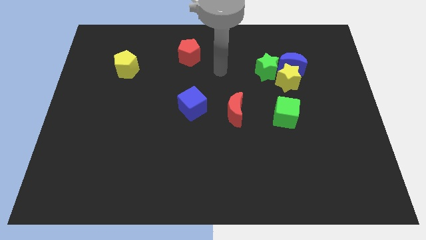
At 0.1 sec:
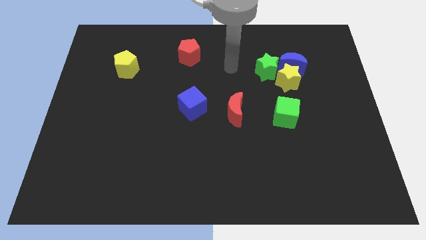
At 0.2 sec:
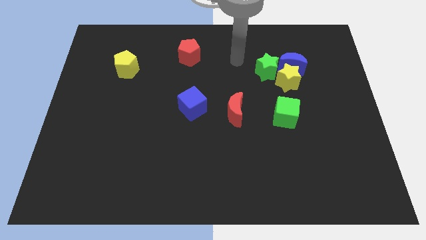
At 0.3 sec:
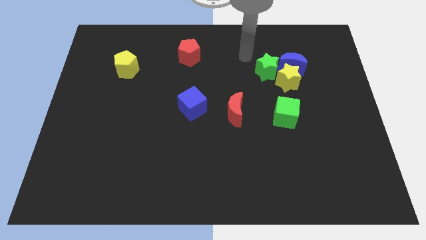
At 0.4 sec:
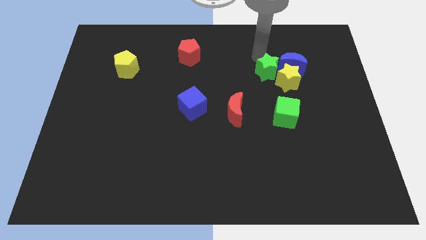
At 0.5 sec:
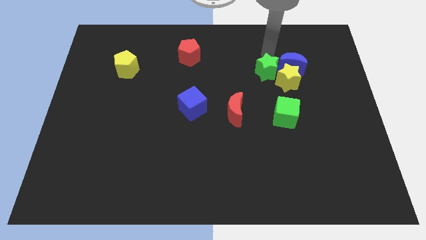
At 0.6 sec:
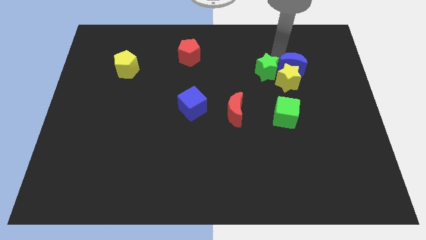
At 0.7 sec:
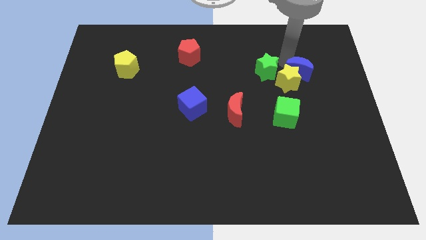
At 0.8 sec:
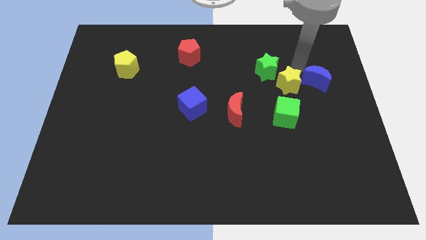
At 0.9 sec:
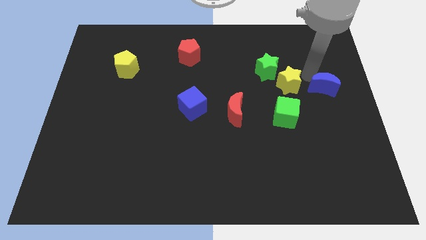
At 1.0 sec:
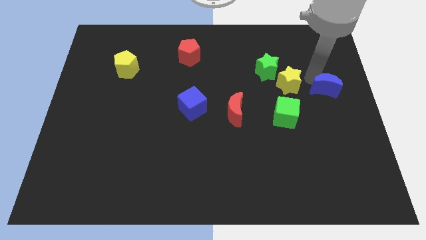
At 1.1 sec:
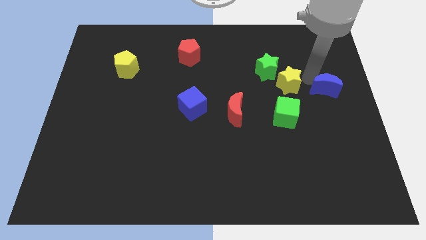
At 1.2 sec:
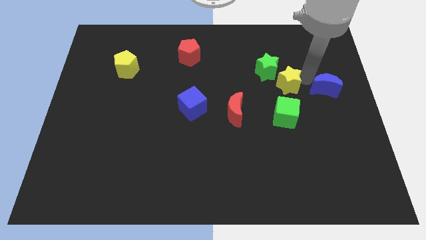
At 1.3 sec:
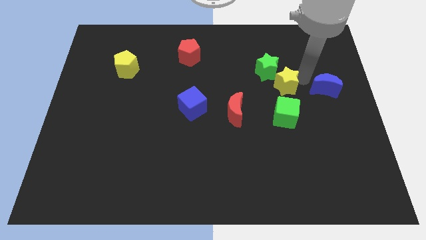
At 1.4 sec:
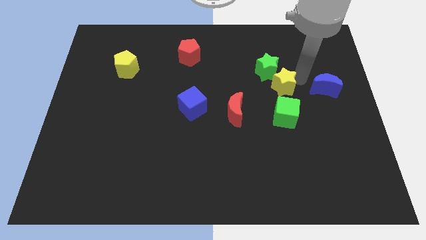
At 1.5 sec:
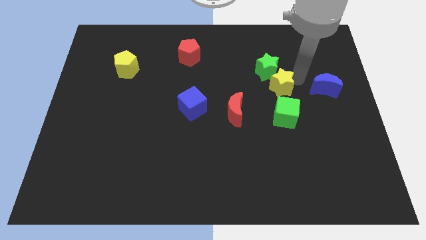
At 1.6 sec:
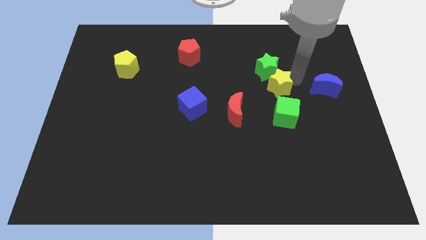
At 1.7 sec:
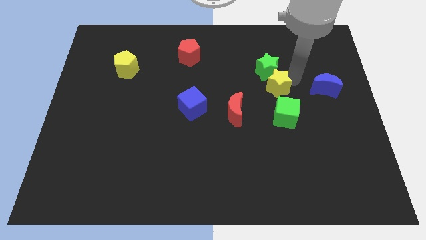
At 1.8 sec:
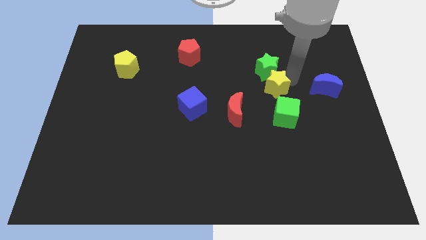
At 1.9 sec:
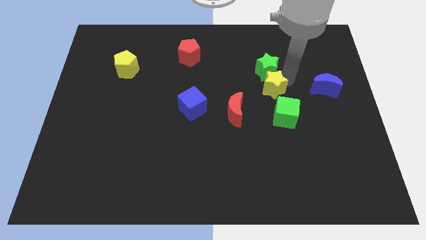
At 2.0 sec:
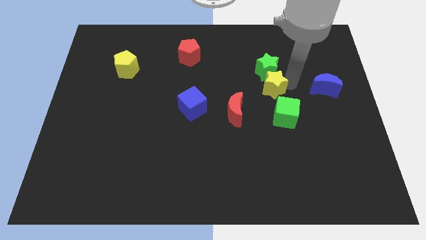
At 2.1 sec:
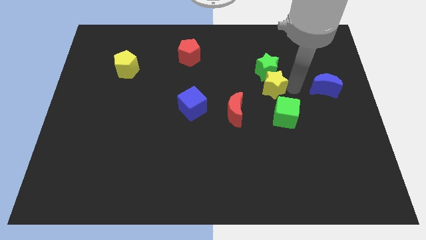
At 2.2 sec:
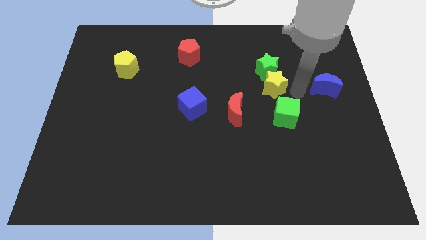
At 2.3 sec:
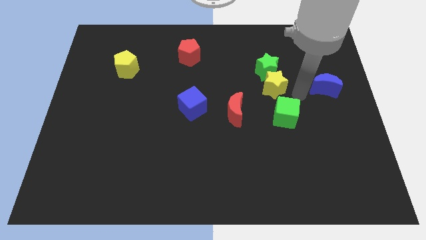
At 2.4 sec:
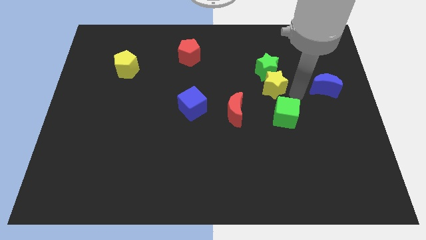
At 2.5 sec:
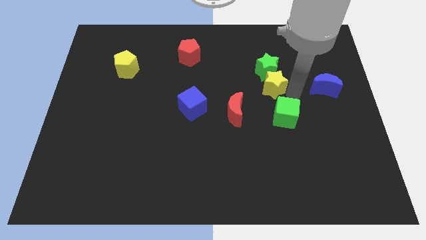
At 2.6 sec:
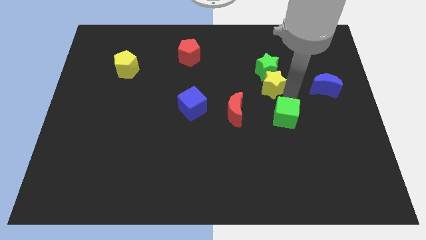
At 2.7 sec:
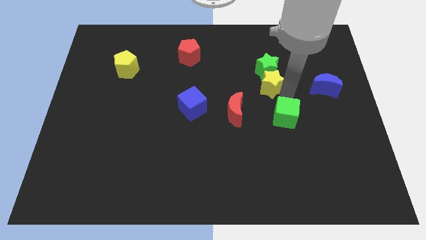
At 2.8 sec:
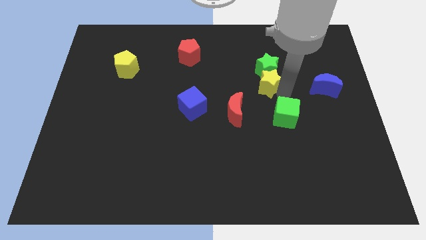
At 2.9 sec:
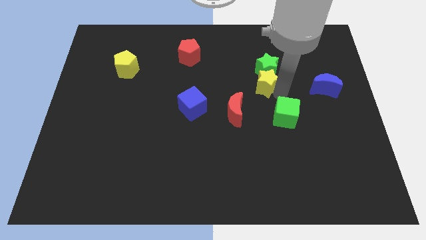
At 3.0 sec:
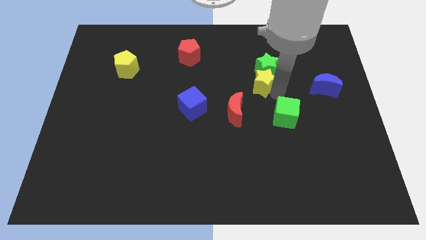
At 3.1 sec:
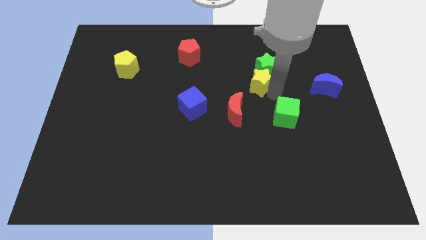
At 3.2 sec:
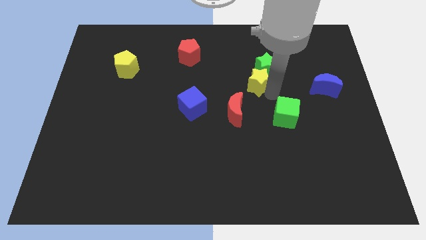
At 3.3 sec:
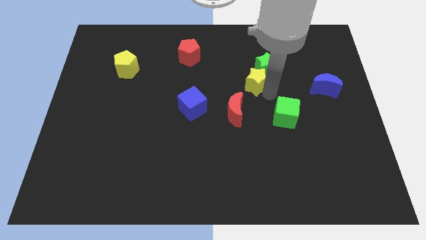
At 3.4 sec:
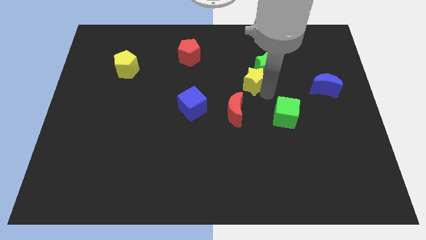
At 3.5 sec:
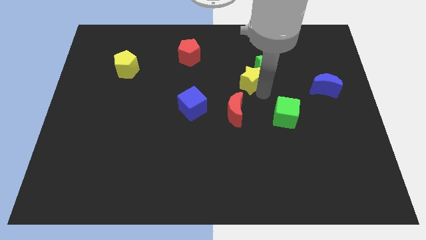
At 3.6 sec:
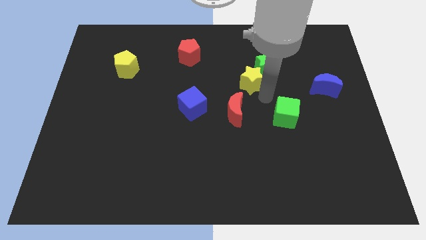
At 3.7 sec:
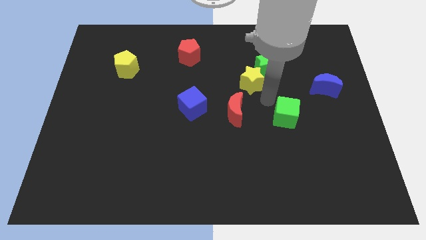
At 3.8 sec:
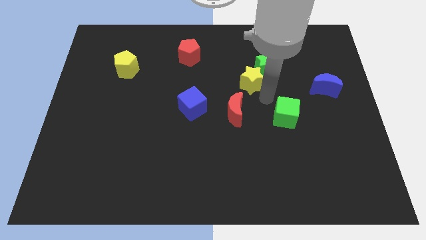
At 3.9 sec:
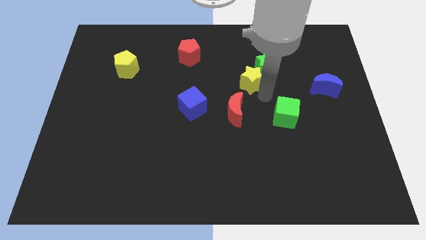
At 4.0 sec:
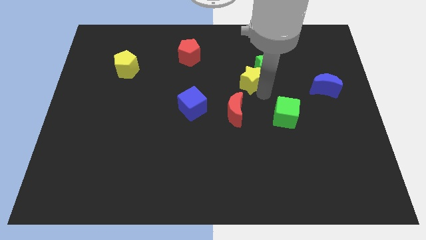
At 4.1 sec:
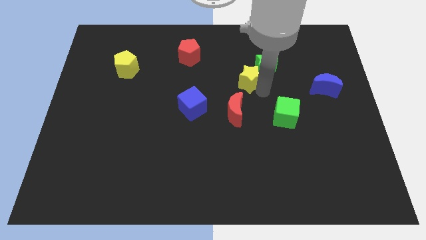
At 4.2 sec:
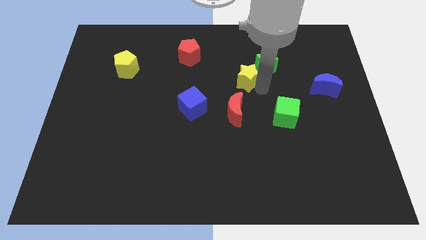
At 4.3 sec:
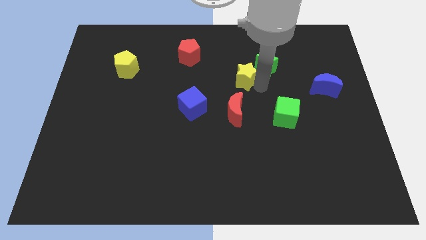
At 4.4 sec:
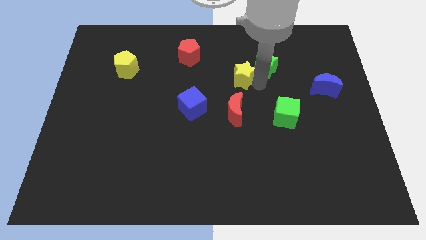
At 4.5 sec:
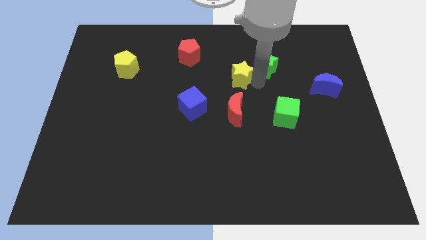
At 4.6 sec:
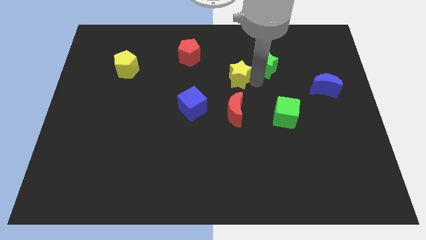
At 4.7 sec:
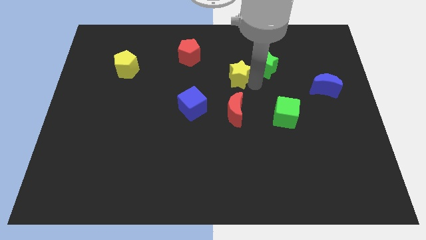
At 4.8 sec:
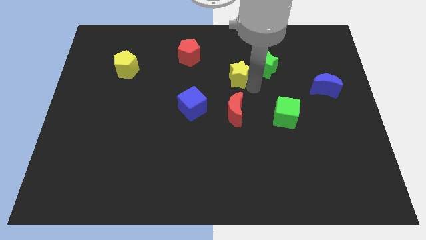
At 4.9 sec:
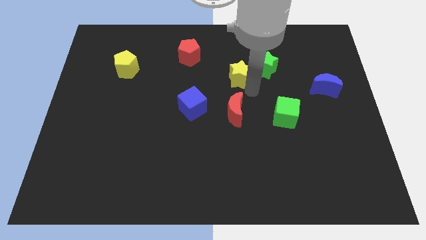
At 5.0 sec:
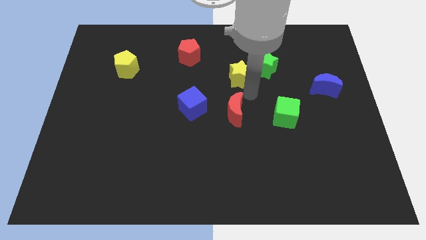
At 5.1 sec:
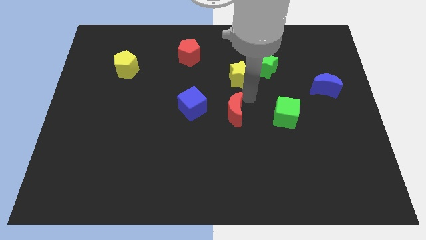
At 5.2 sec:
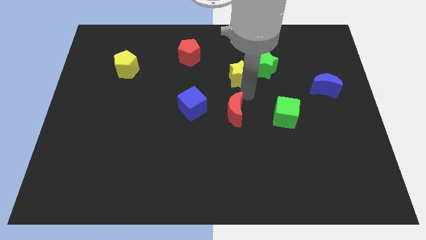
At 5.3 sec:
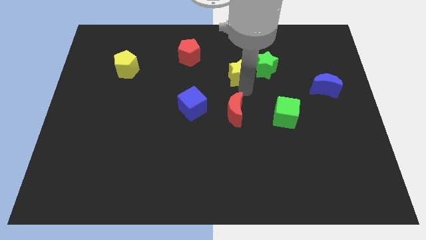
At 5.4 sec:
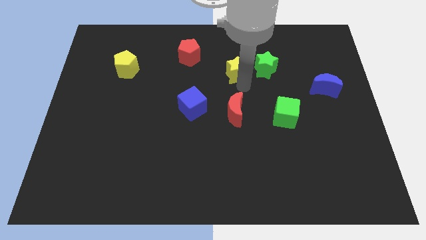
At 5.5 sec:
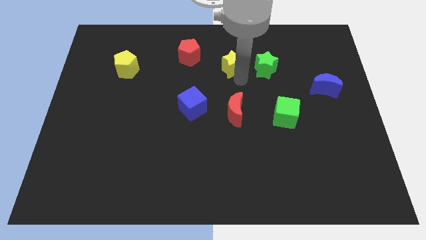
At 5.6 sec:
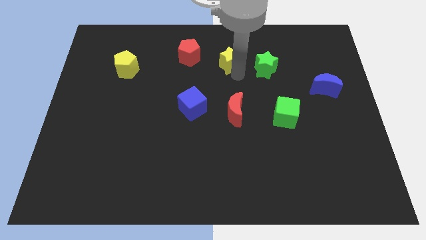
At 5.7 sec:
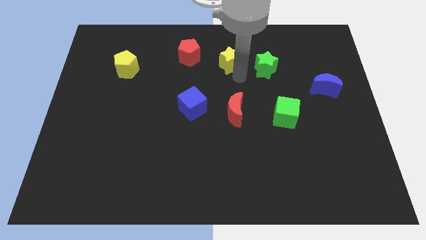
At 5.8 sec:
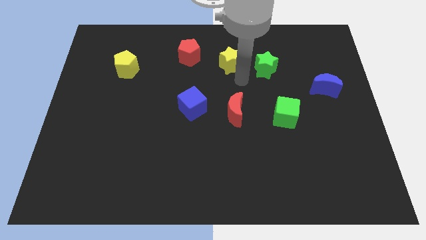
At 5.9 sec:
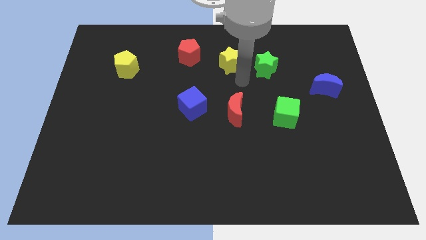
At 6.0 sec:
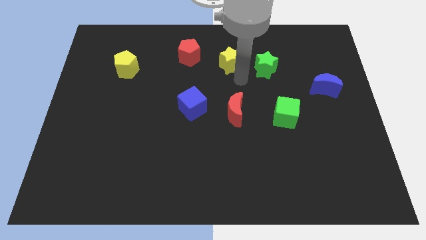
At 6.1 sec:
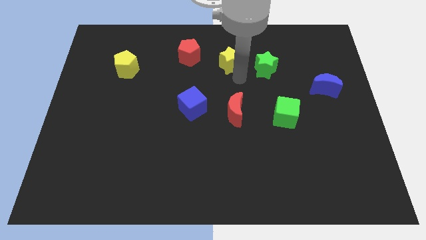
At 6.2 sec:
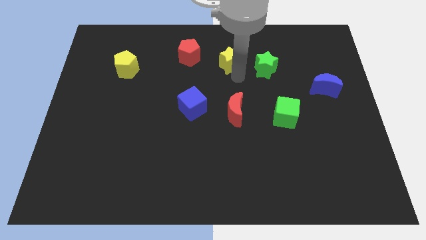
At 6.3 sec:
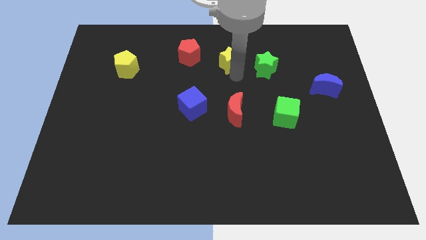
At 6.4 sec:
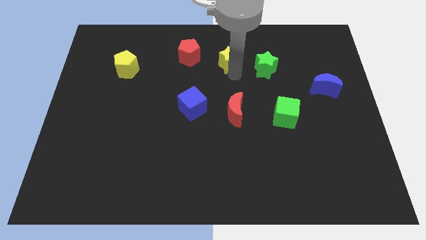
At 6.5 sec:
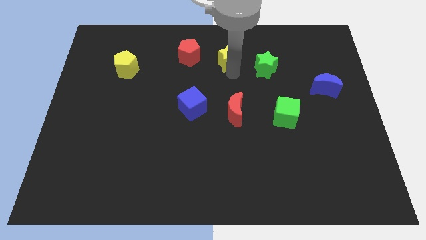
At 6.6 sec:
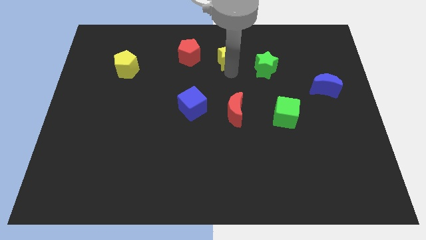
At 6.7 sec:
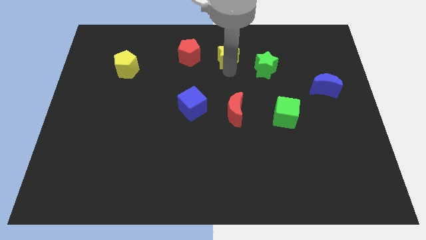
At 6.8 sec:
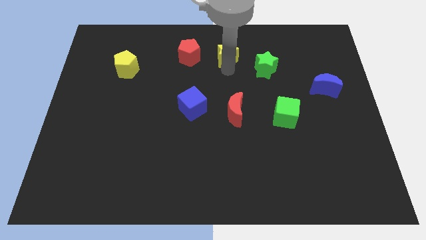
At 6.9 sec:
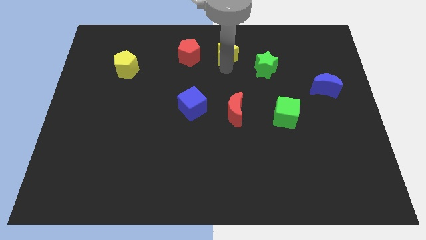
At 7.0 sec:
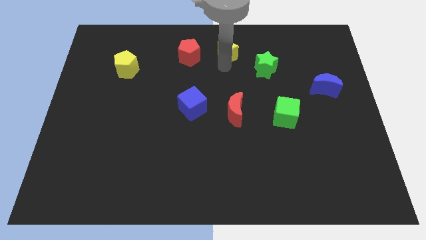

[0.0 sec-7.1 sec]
push the yellow star to the towards your base
